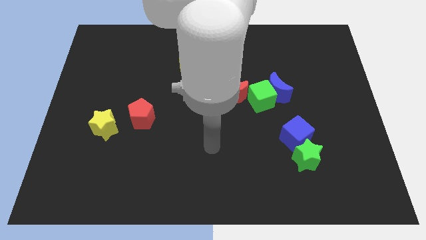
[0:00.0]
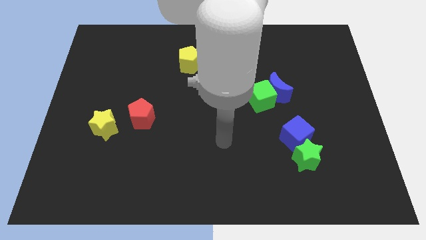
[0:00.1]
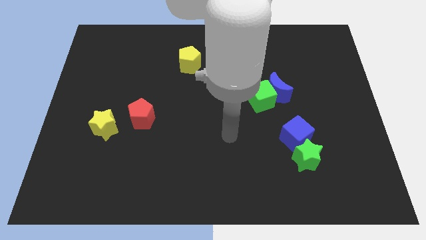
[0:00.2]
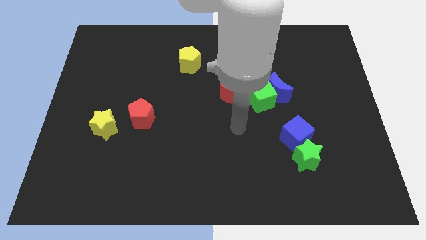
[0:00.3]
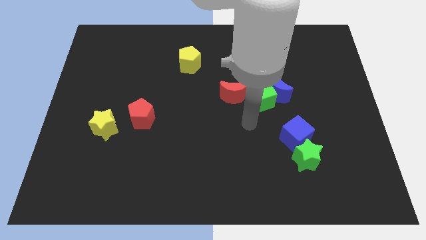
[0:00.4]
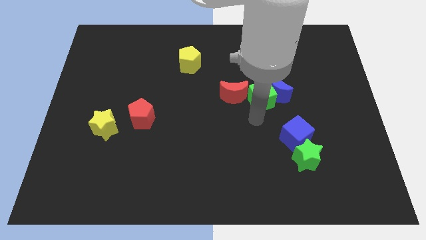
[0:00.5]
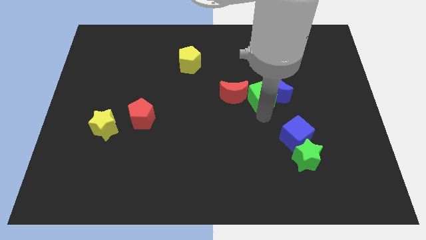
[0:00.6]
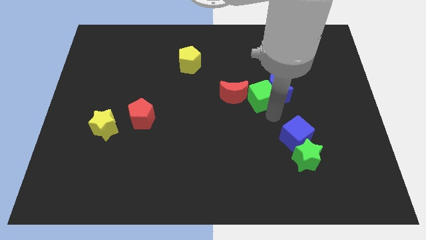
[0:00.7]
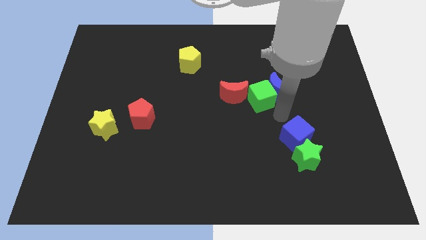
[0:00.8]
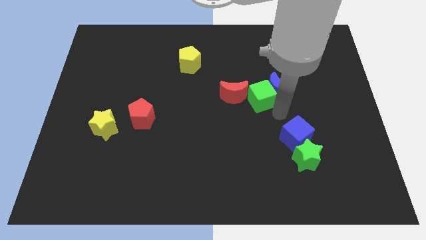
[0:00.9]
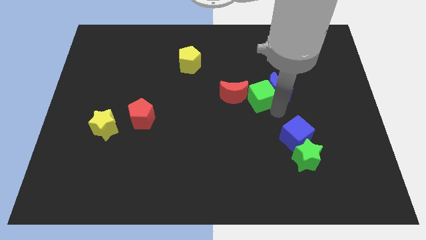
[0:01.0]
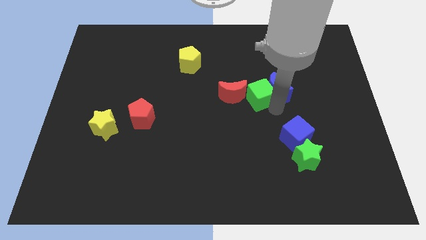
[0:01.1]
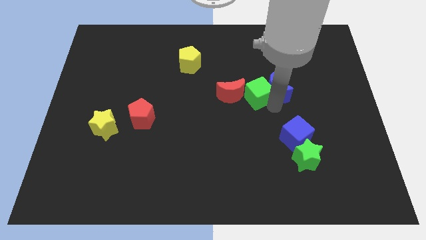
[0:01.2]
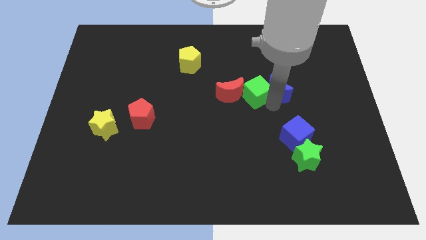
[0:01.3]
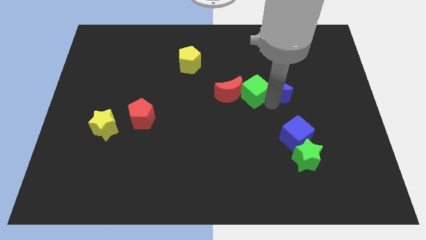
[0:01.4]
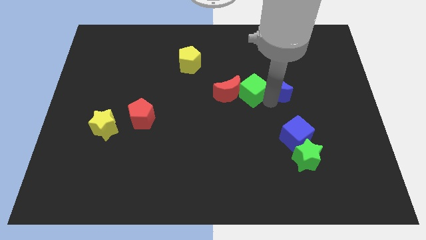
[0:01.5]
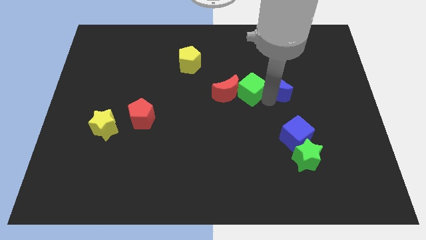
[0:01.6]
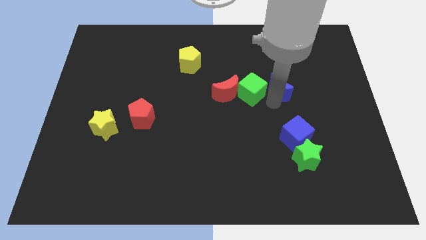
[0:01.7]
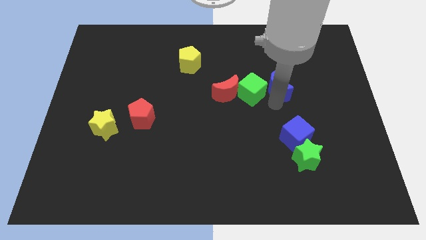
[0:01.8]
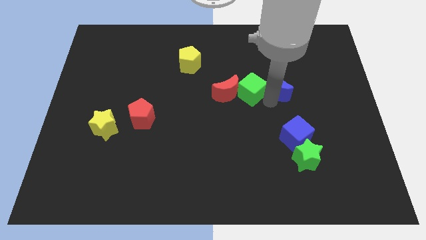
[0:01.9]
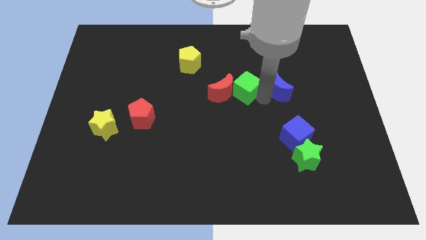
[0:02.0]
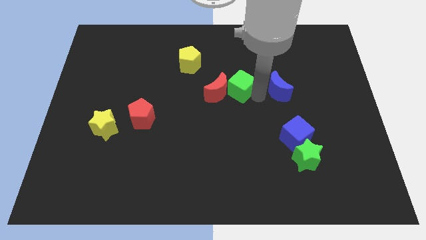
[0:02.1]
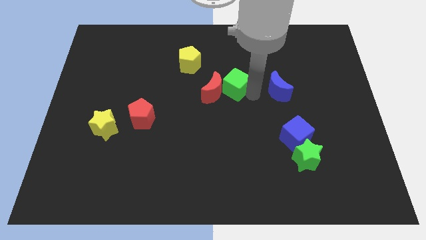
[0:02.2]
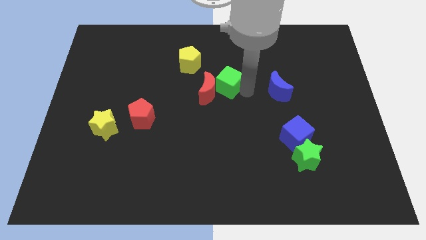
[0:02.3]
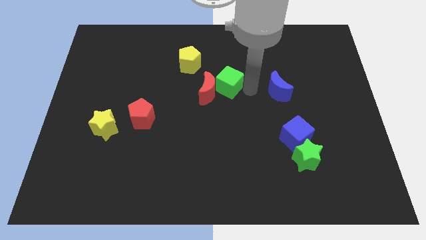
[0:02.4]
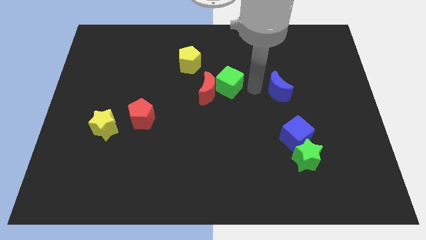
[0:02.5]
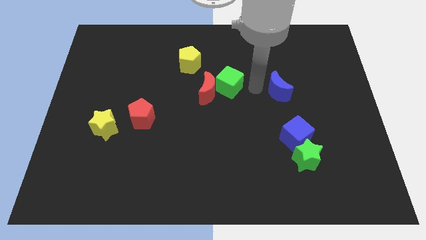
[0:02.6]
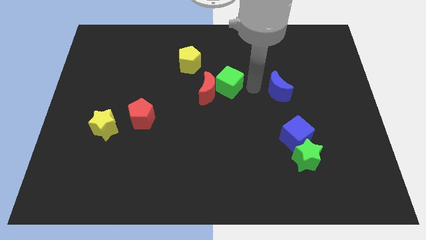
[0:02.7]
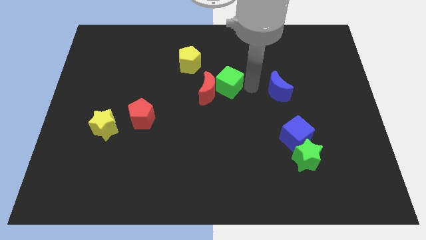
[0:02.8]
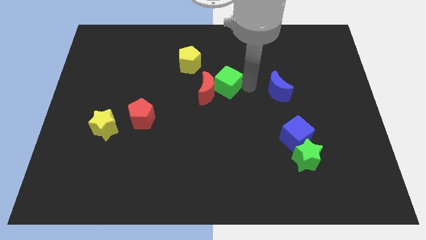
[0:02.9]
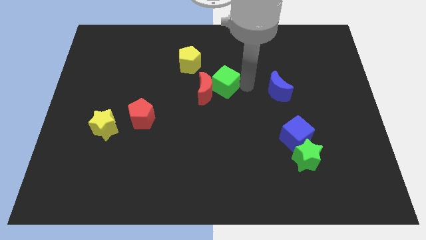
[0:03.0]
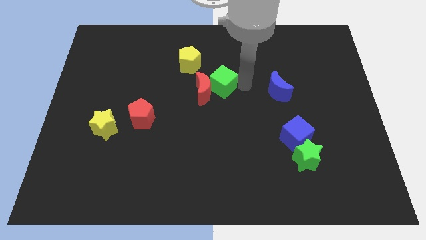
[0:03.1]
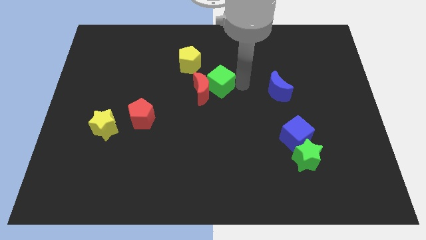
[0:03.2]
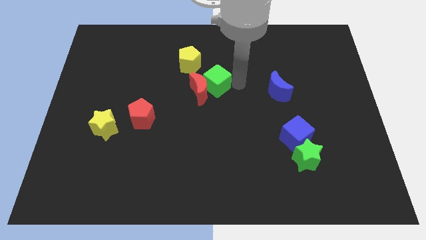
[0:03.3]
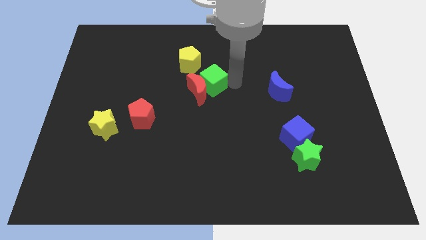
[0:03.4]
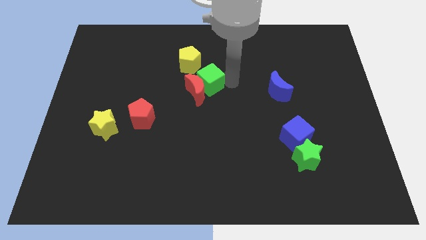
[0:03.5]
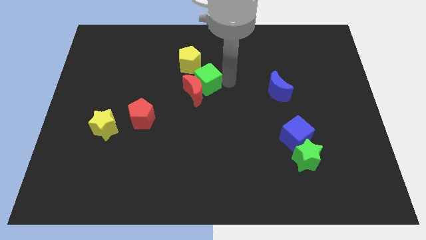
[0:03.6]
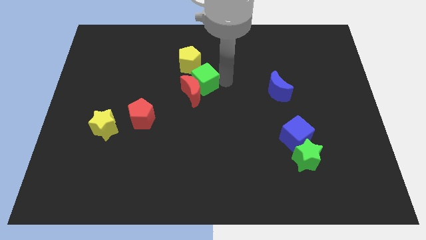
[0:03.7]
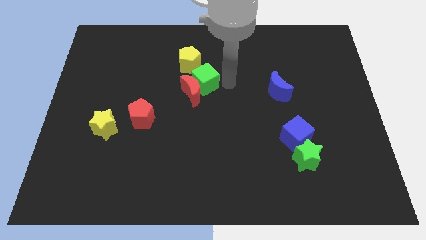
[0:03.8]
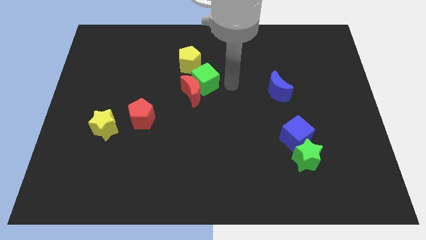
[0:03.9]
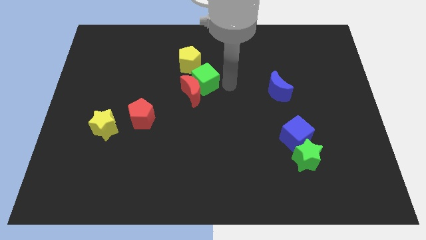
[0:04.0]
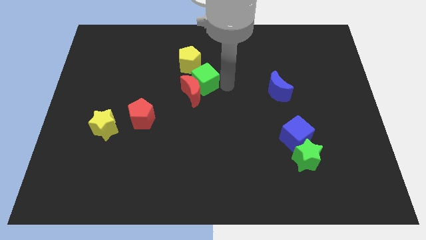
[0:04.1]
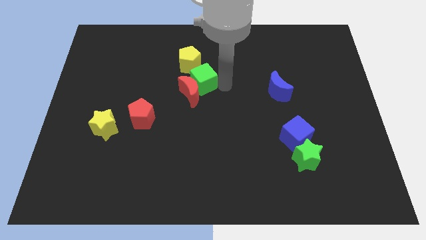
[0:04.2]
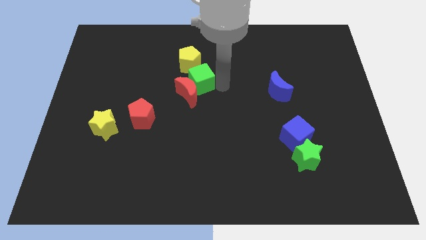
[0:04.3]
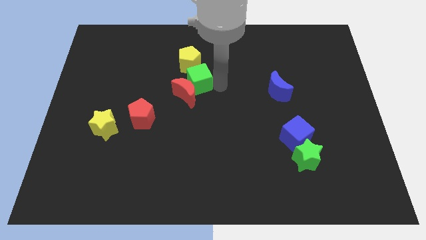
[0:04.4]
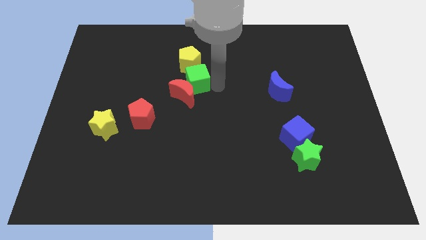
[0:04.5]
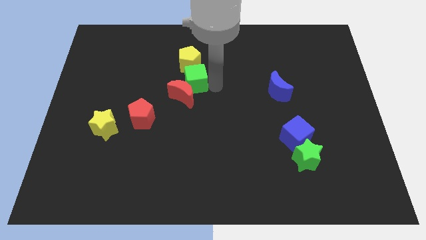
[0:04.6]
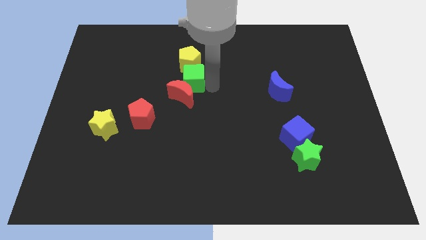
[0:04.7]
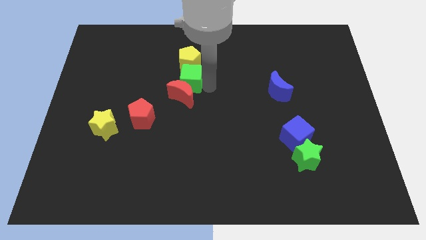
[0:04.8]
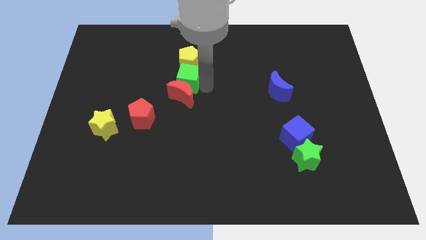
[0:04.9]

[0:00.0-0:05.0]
move the green cube to the bottom left of the yellow pentagon

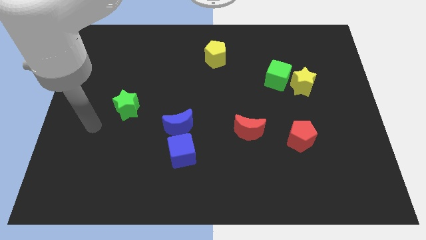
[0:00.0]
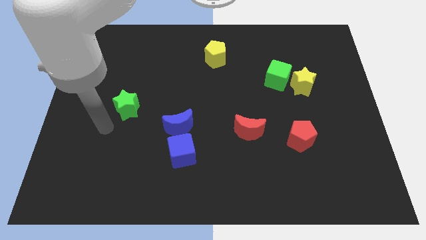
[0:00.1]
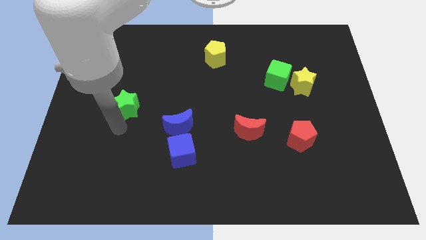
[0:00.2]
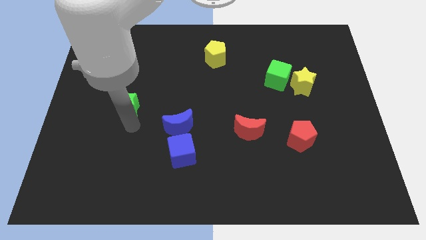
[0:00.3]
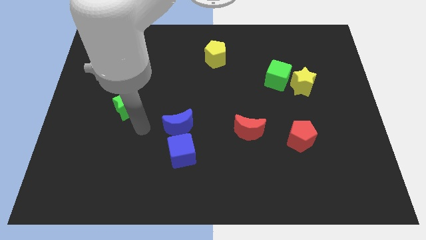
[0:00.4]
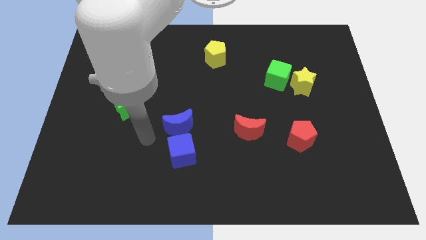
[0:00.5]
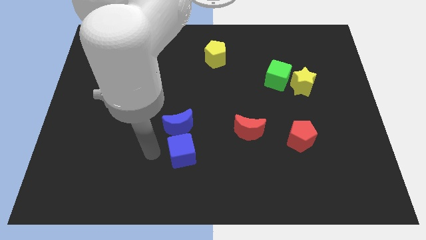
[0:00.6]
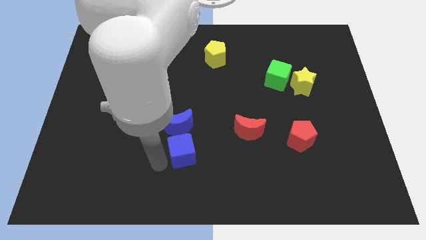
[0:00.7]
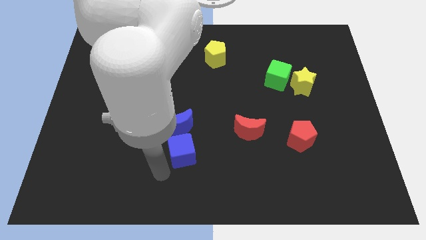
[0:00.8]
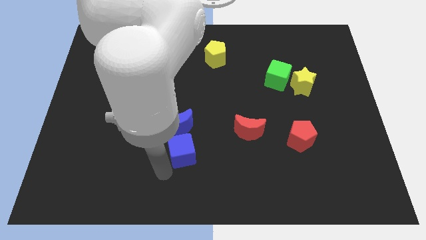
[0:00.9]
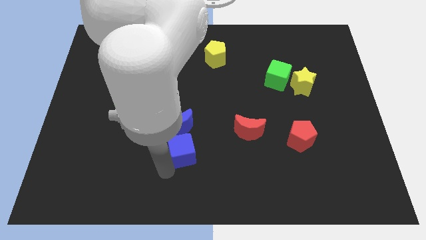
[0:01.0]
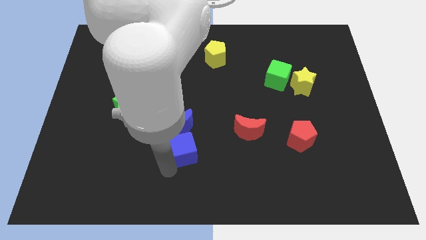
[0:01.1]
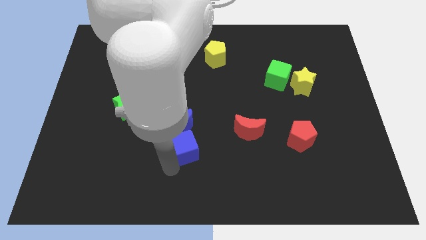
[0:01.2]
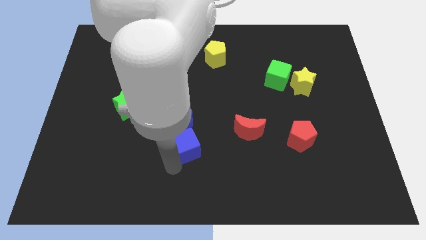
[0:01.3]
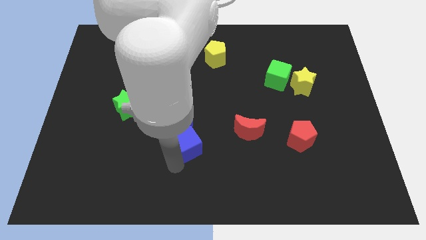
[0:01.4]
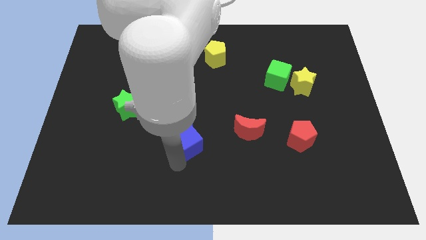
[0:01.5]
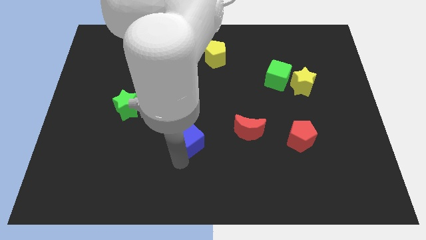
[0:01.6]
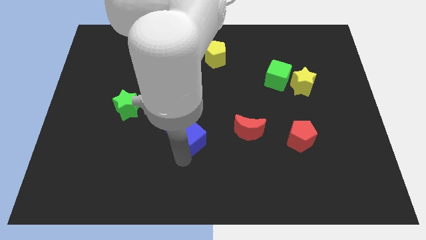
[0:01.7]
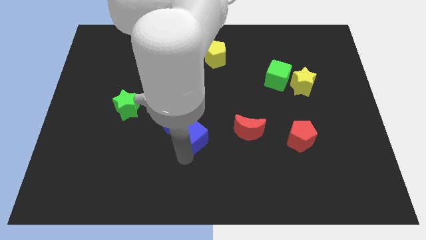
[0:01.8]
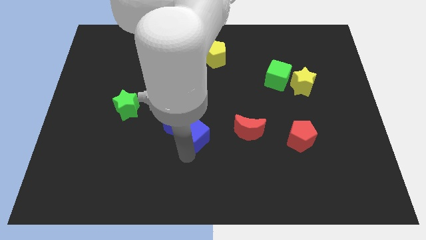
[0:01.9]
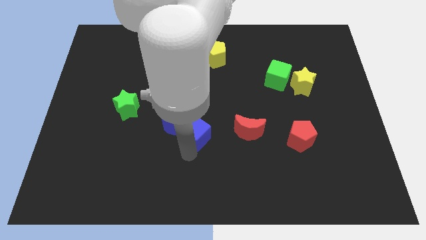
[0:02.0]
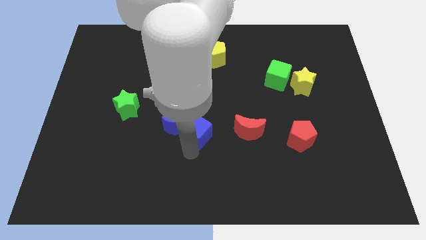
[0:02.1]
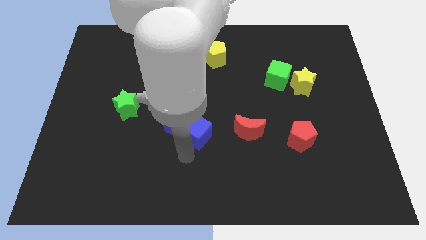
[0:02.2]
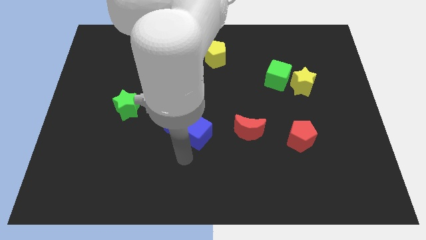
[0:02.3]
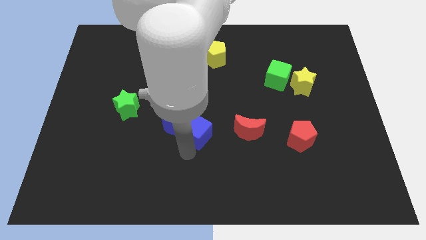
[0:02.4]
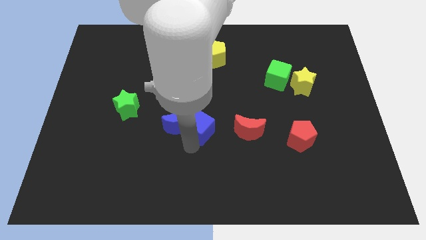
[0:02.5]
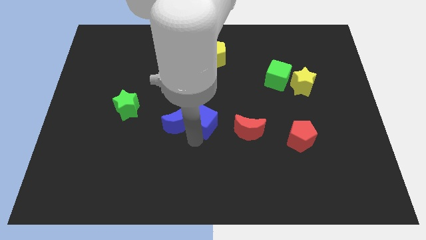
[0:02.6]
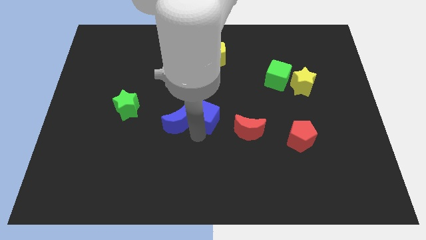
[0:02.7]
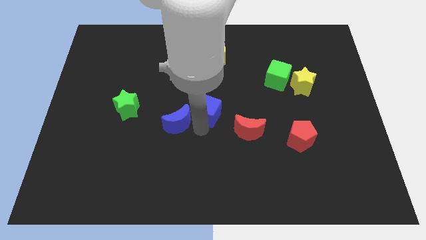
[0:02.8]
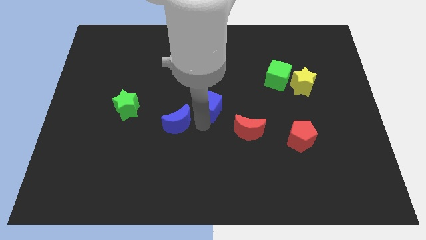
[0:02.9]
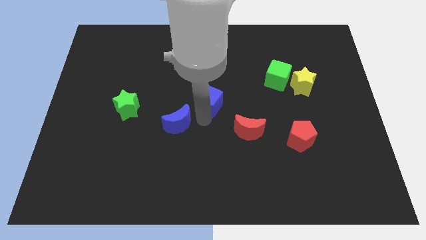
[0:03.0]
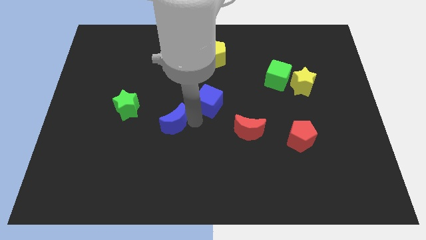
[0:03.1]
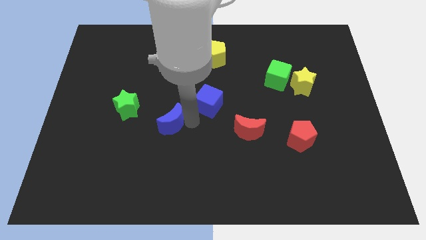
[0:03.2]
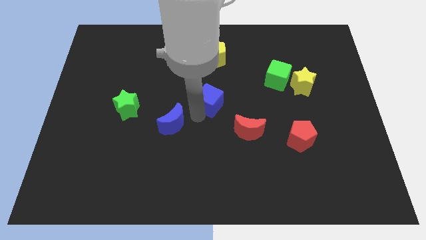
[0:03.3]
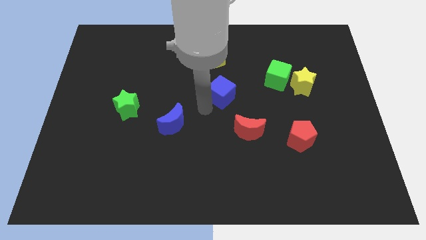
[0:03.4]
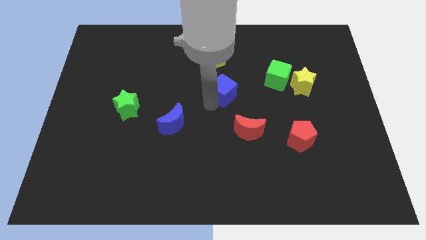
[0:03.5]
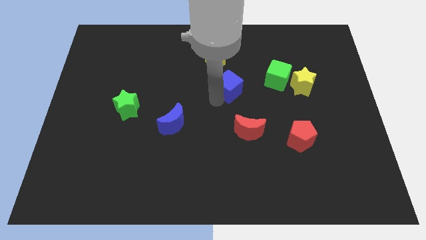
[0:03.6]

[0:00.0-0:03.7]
put the blue cube to the left side of the green cube
